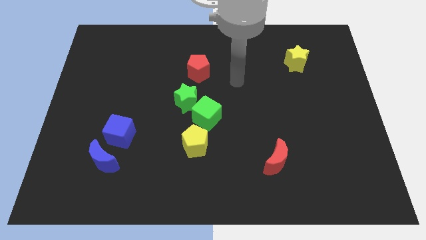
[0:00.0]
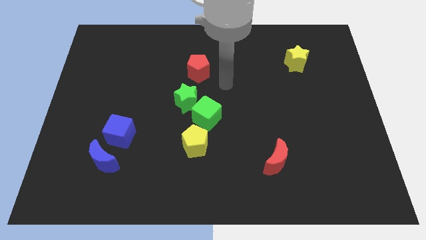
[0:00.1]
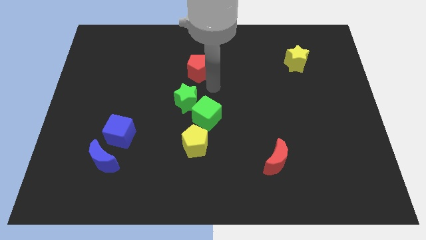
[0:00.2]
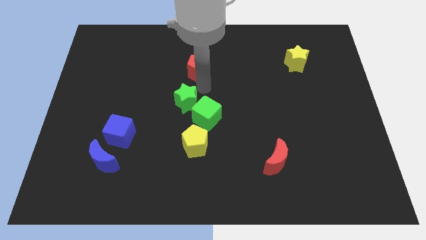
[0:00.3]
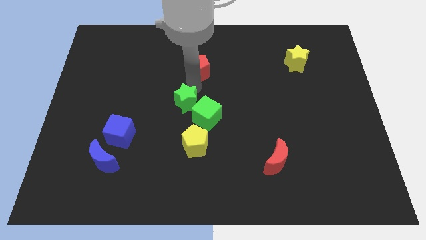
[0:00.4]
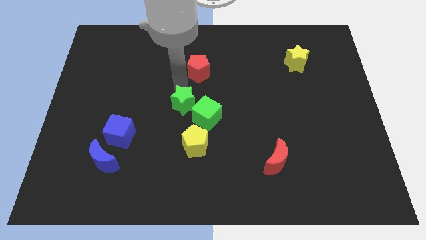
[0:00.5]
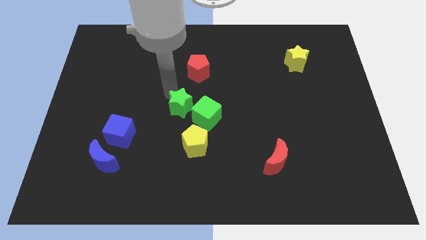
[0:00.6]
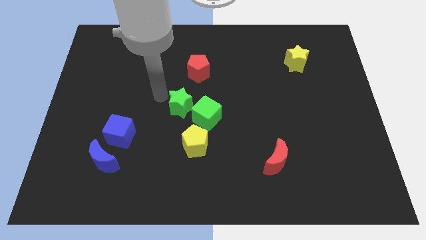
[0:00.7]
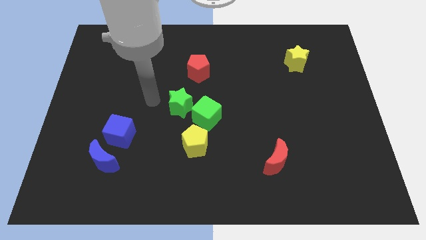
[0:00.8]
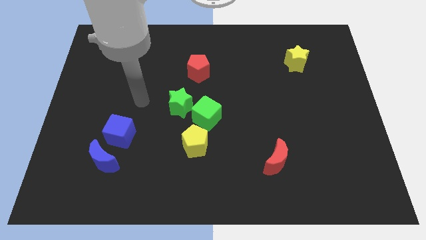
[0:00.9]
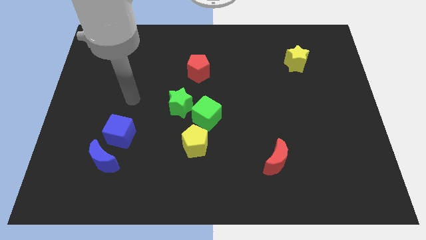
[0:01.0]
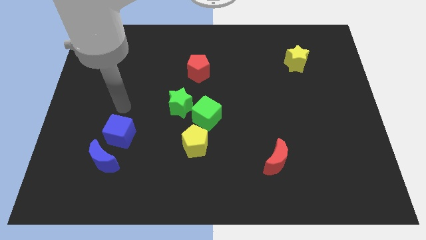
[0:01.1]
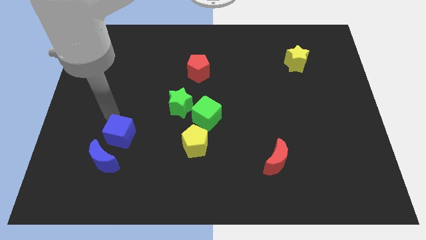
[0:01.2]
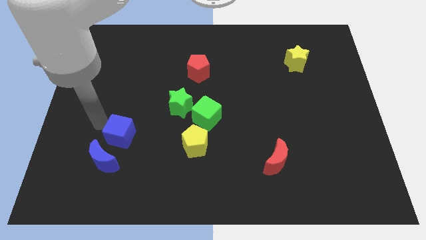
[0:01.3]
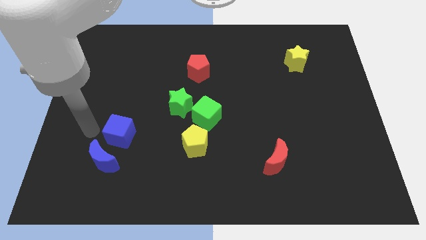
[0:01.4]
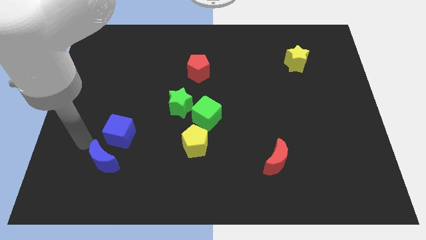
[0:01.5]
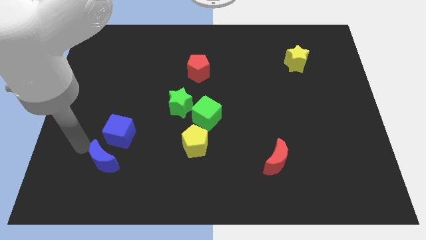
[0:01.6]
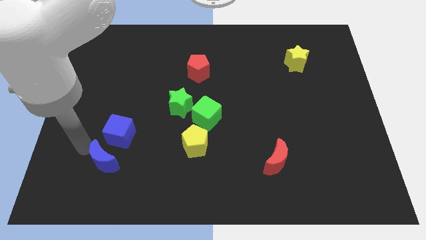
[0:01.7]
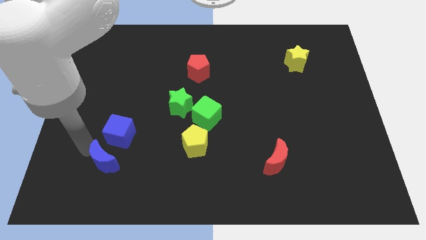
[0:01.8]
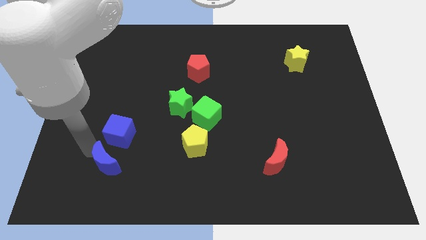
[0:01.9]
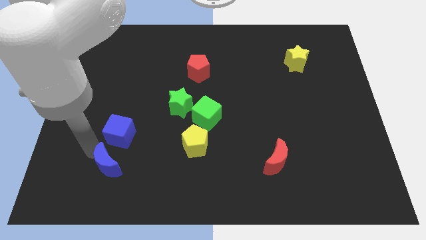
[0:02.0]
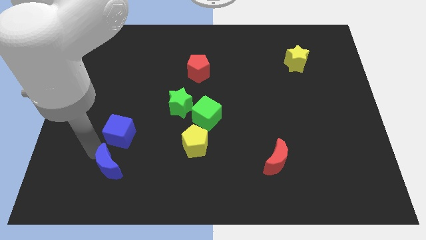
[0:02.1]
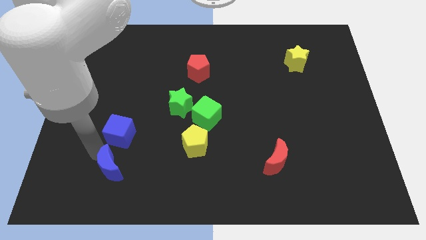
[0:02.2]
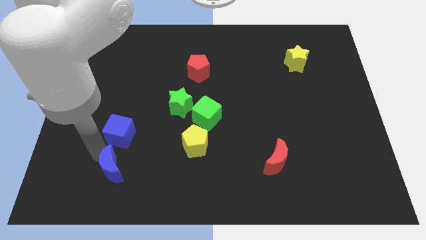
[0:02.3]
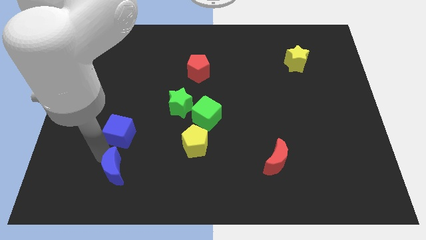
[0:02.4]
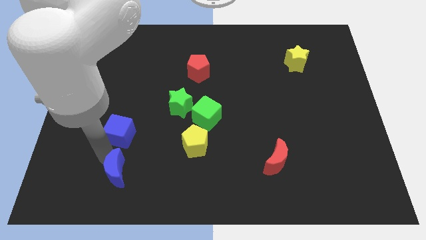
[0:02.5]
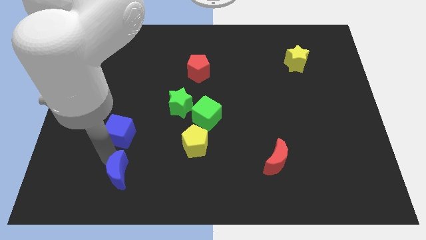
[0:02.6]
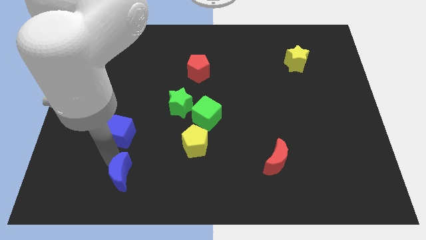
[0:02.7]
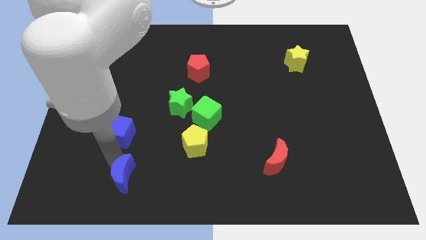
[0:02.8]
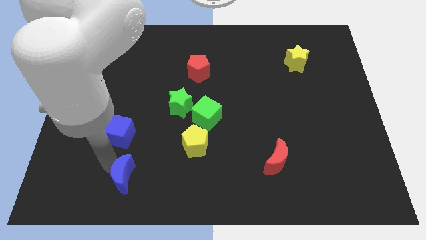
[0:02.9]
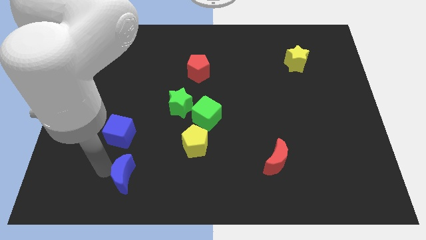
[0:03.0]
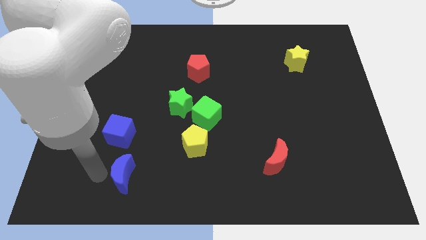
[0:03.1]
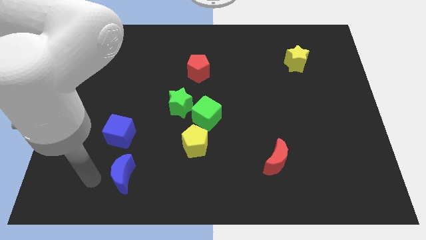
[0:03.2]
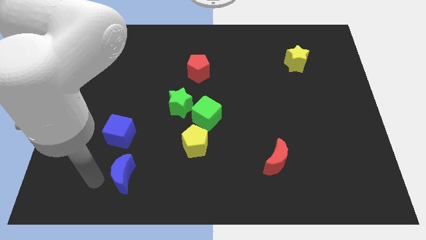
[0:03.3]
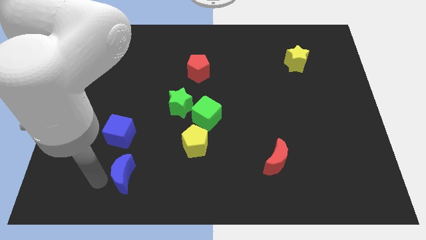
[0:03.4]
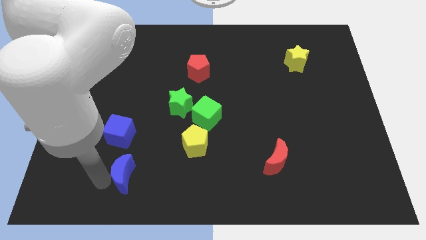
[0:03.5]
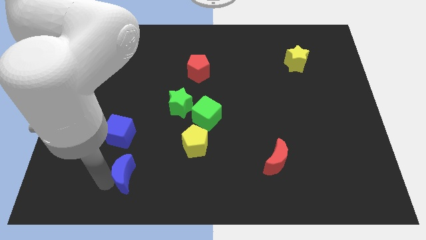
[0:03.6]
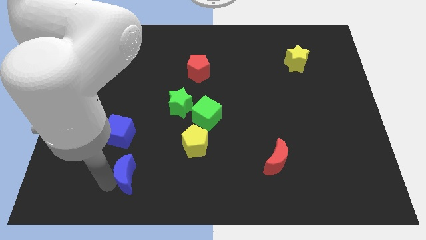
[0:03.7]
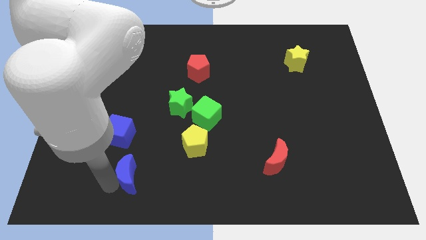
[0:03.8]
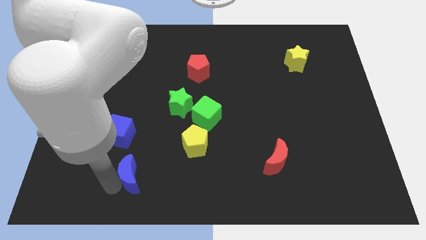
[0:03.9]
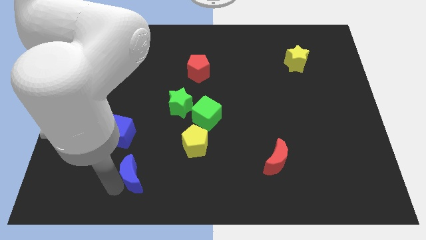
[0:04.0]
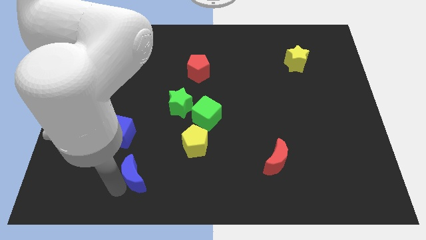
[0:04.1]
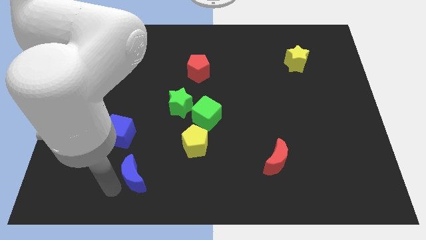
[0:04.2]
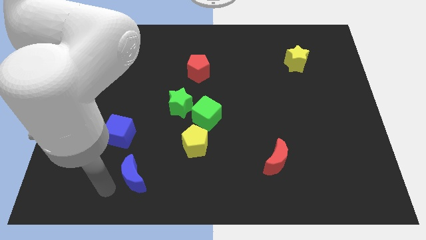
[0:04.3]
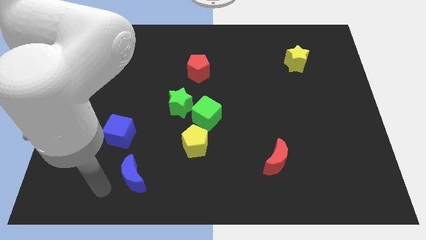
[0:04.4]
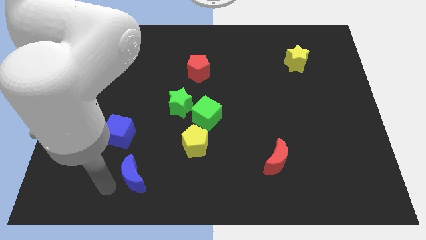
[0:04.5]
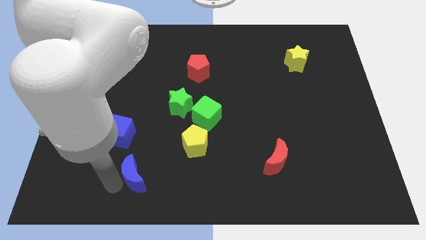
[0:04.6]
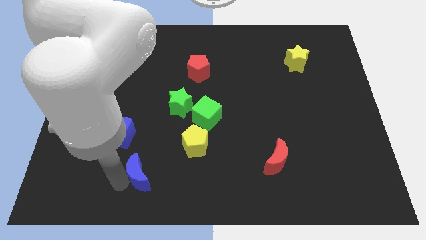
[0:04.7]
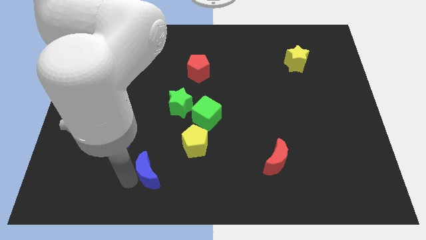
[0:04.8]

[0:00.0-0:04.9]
slide the blue moon to the bottom left side of the yellow pentagon

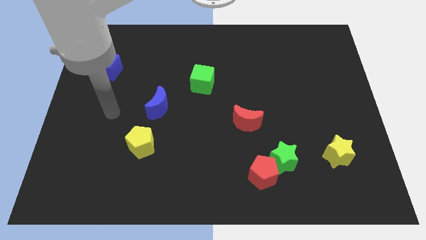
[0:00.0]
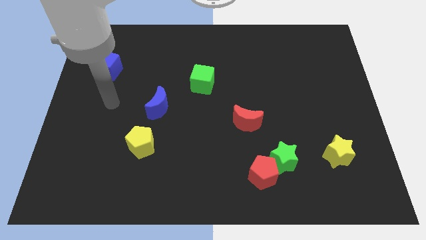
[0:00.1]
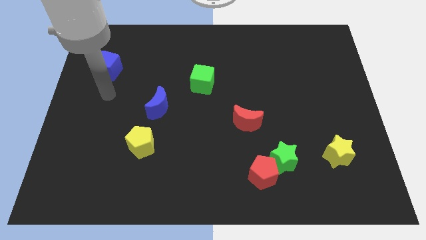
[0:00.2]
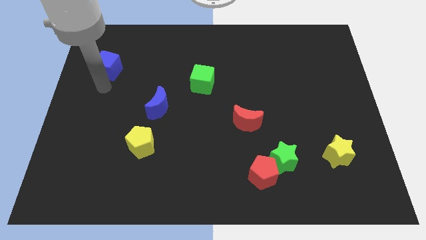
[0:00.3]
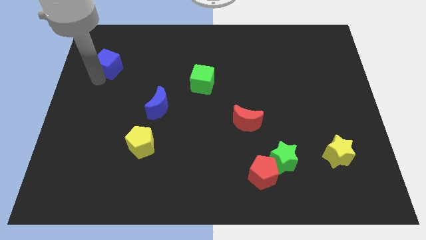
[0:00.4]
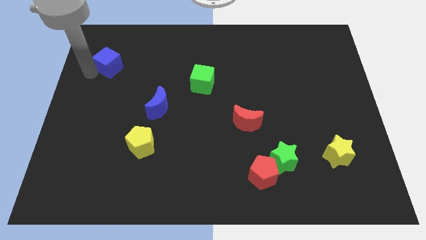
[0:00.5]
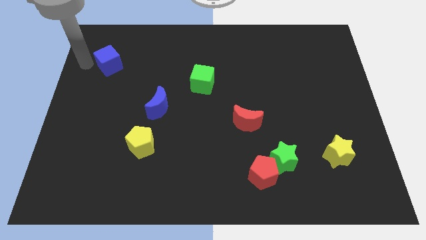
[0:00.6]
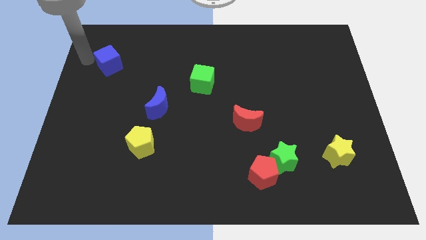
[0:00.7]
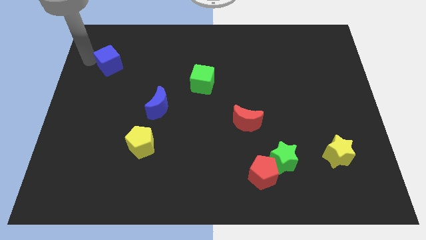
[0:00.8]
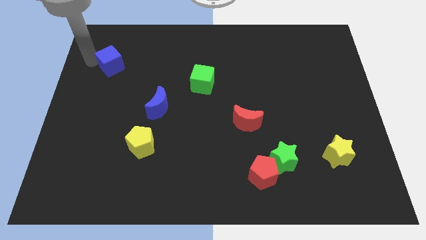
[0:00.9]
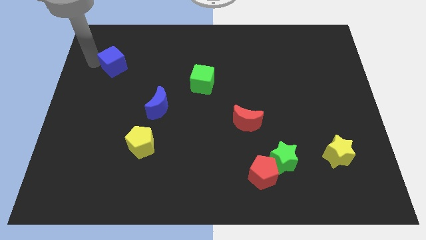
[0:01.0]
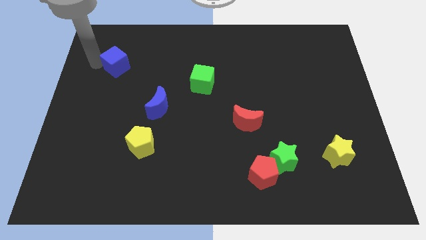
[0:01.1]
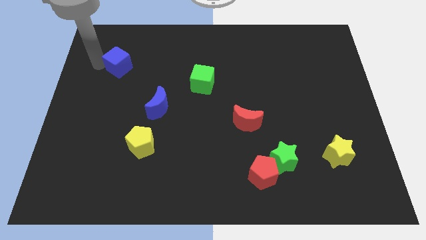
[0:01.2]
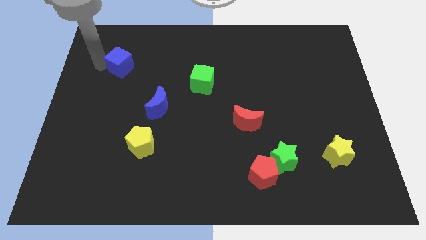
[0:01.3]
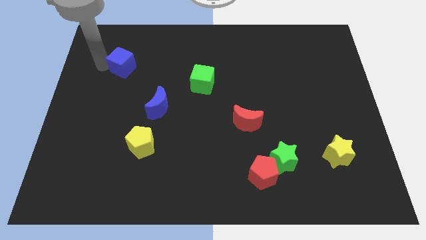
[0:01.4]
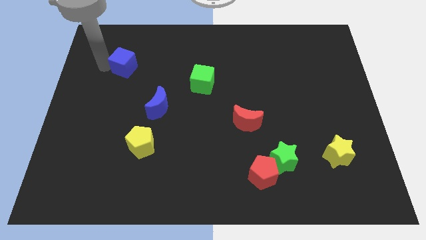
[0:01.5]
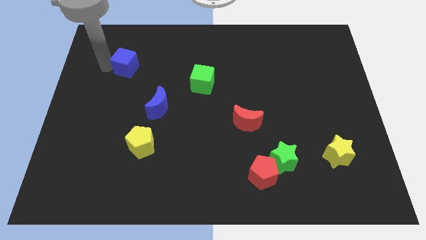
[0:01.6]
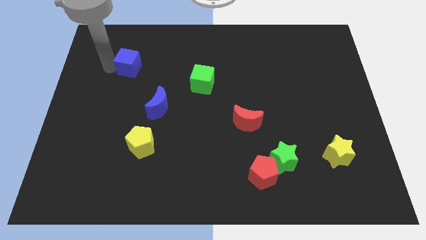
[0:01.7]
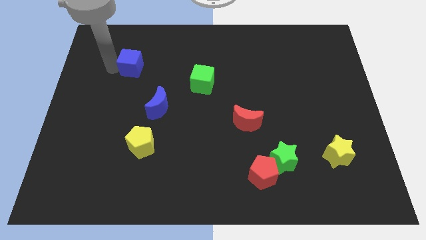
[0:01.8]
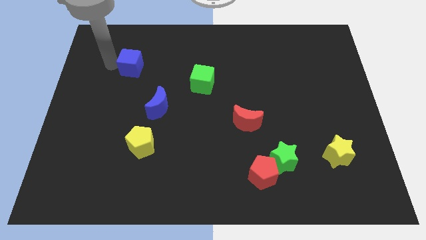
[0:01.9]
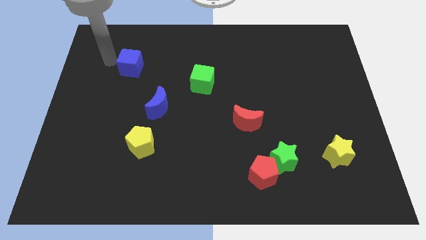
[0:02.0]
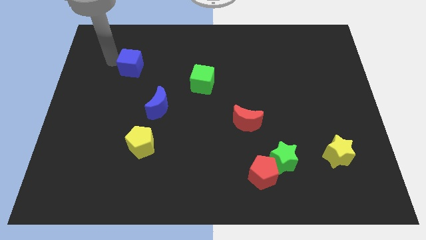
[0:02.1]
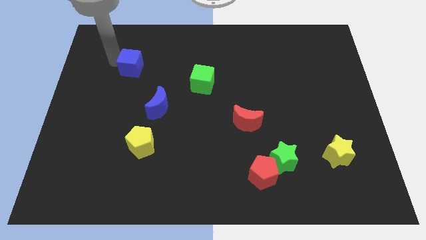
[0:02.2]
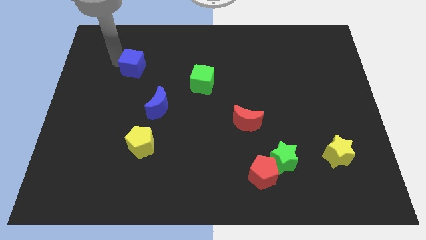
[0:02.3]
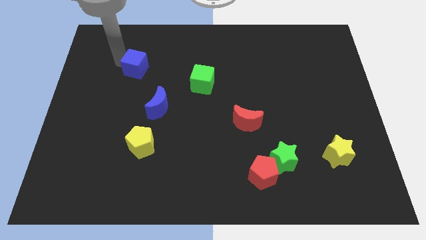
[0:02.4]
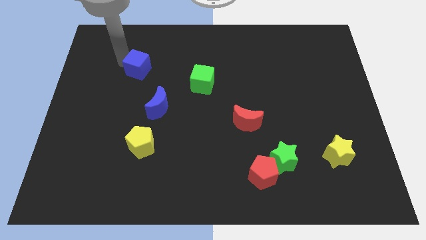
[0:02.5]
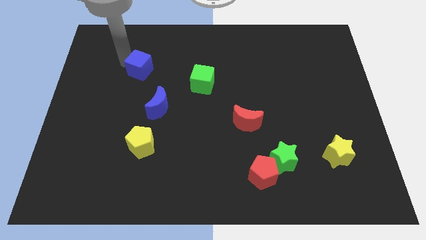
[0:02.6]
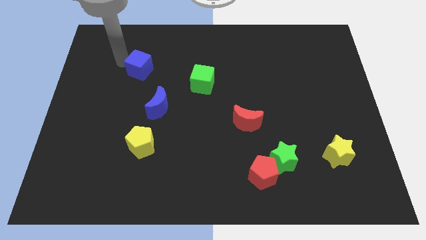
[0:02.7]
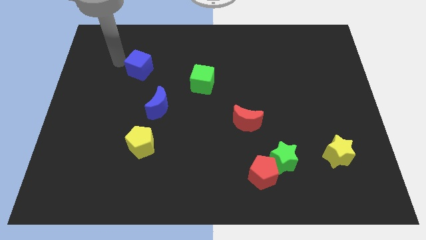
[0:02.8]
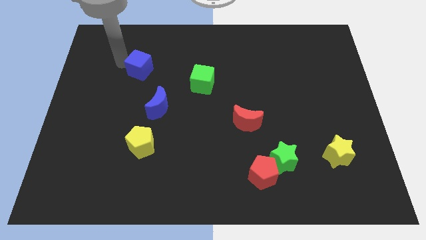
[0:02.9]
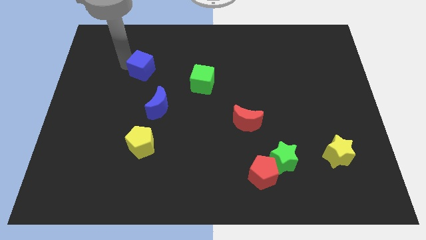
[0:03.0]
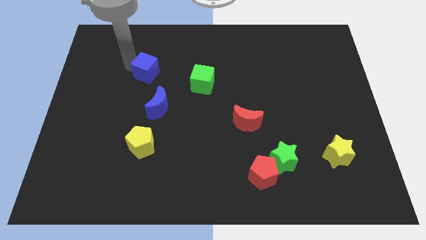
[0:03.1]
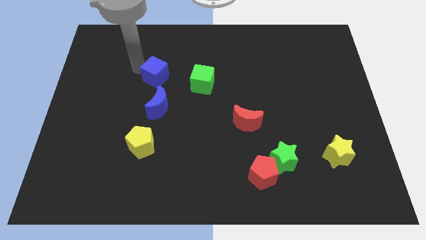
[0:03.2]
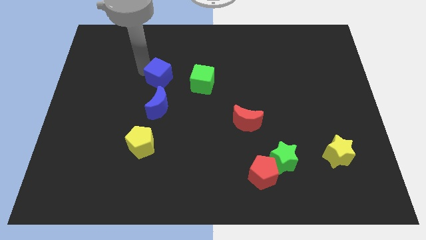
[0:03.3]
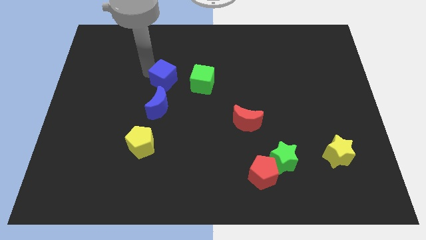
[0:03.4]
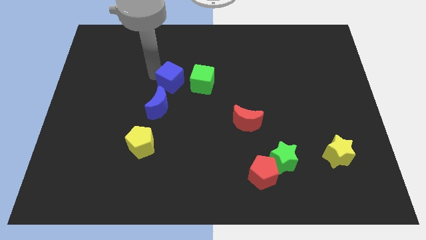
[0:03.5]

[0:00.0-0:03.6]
push the blue cube to the top right side of the blue moon
